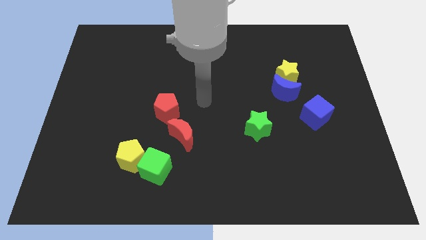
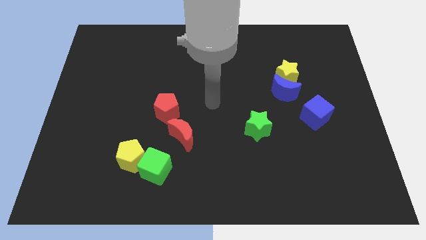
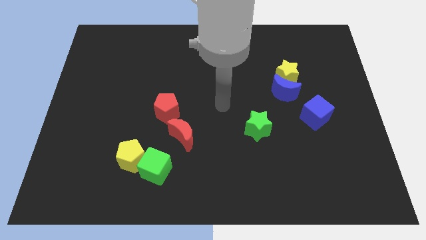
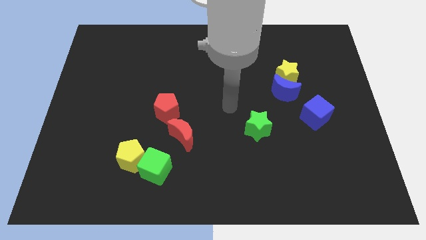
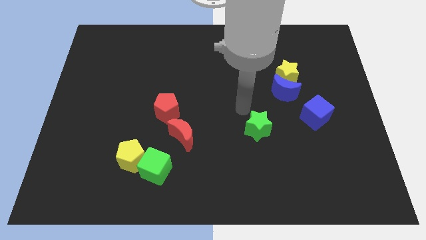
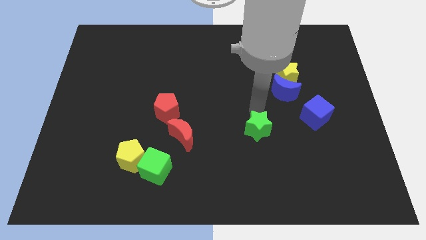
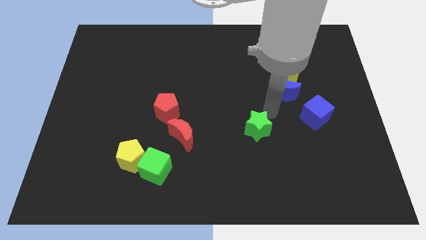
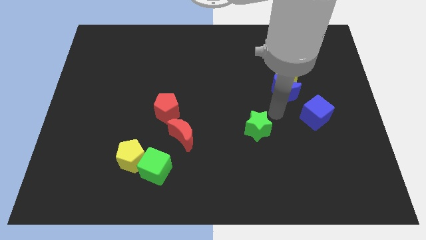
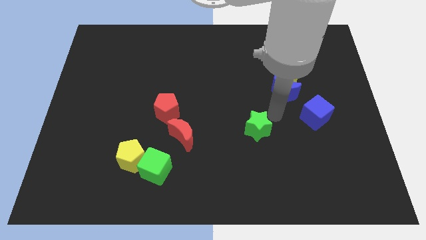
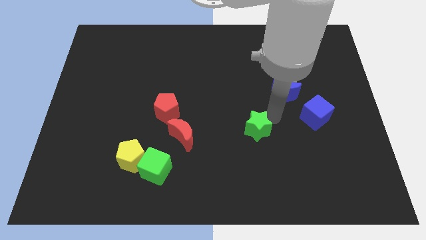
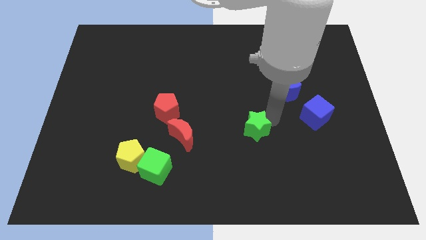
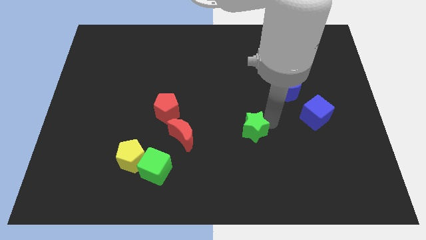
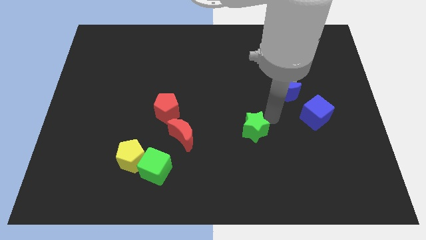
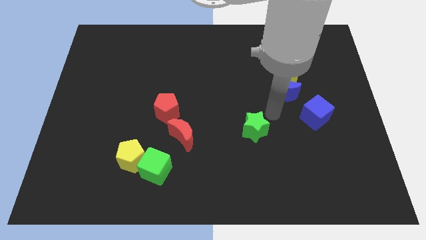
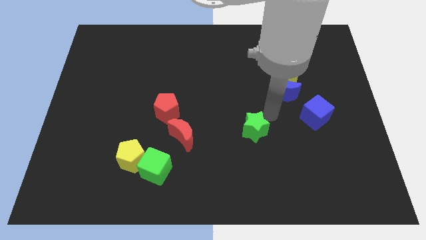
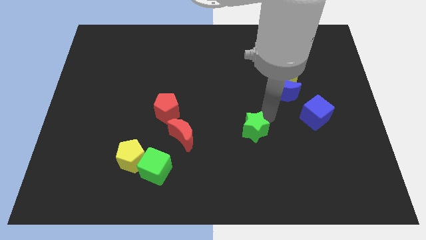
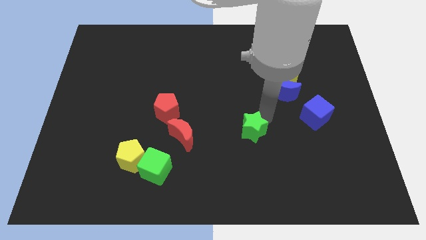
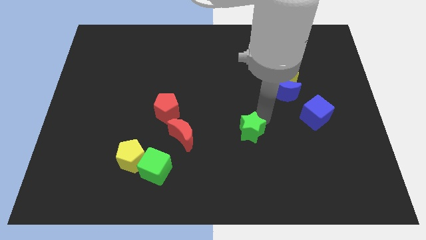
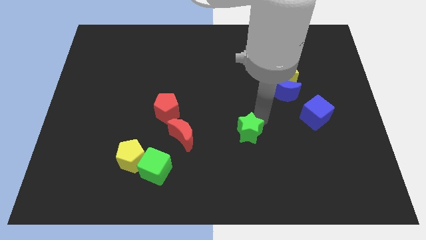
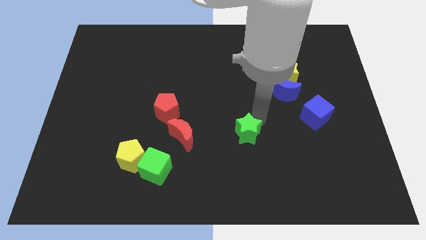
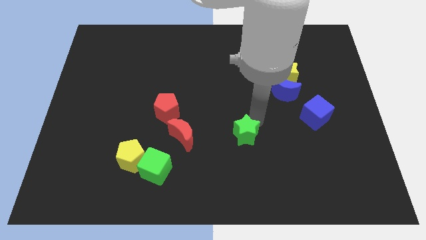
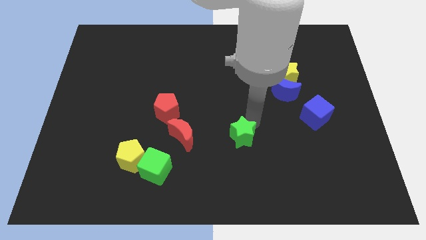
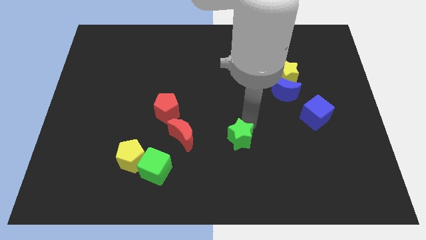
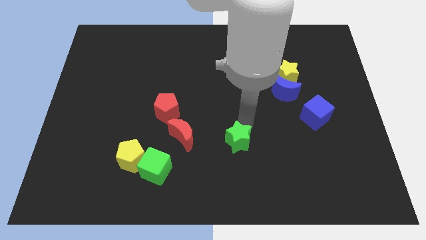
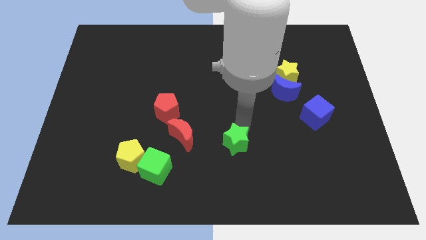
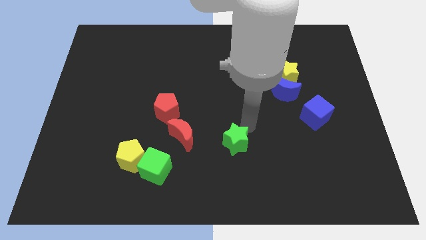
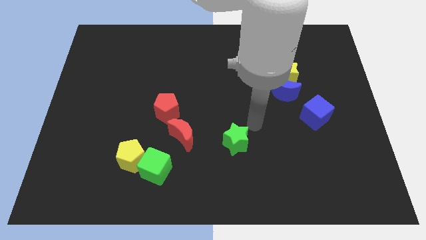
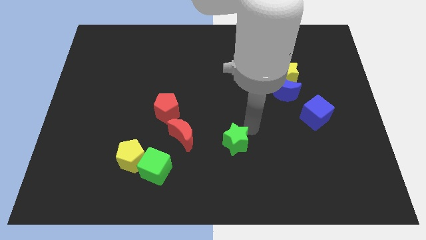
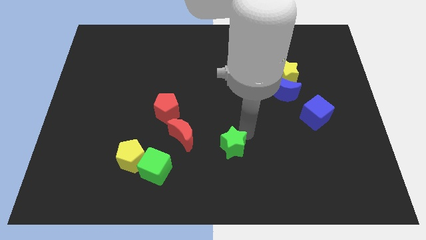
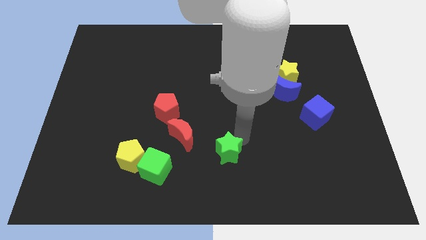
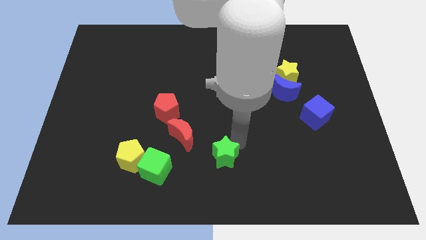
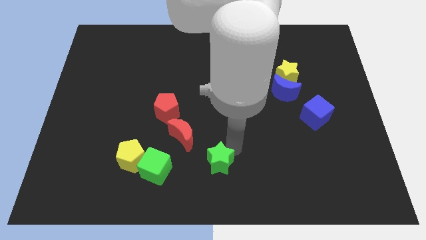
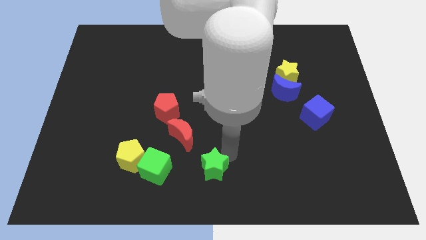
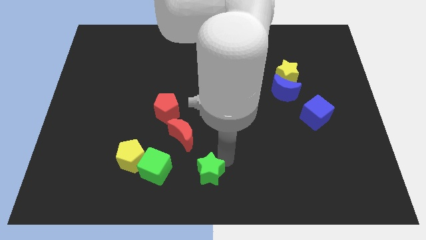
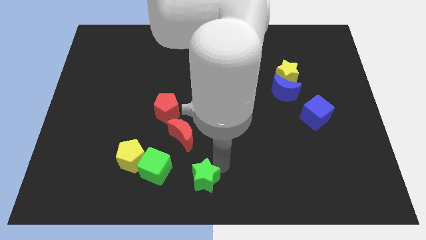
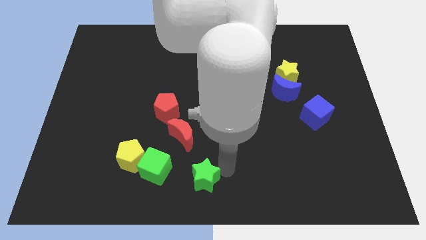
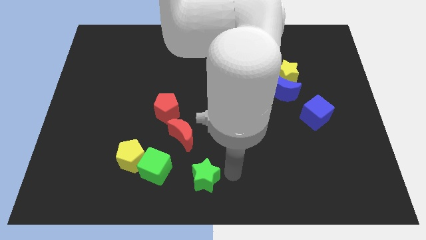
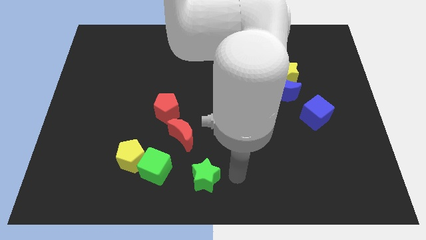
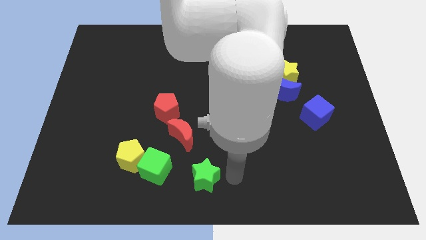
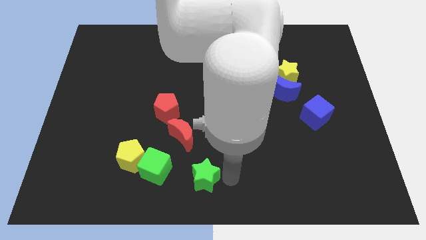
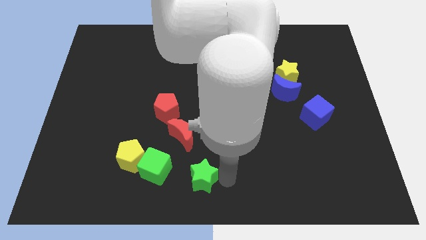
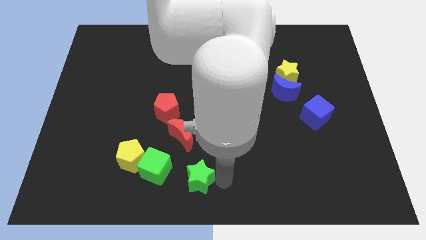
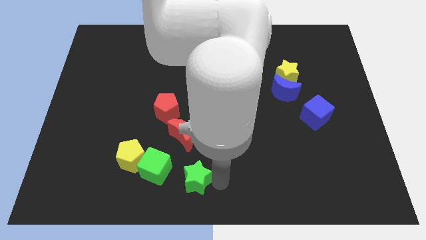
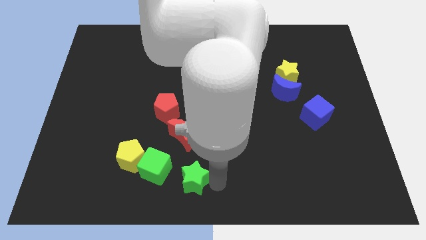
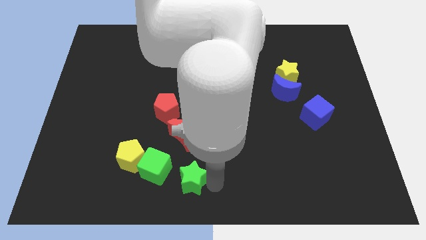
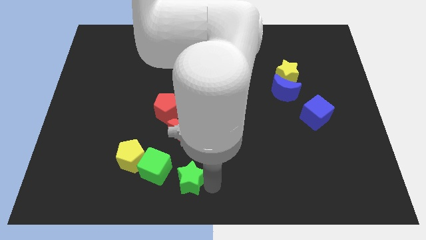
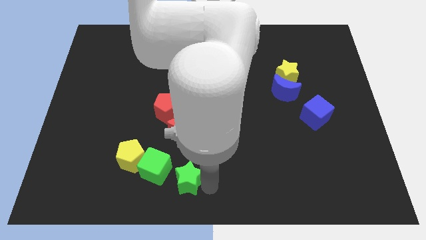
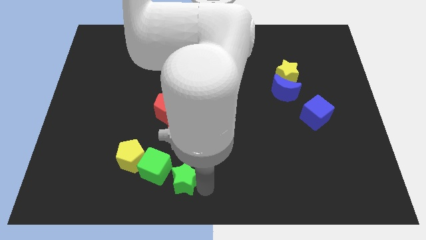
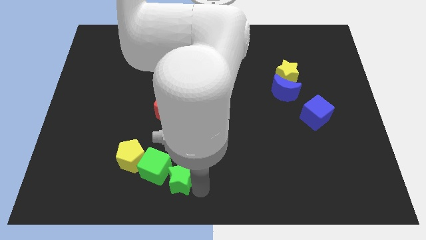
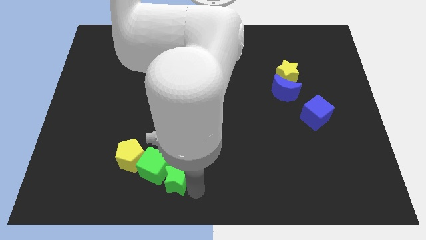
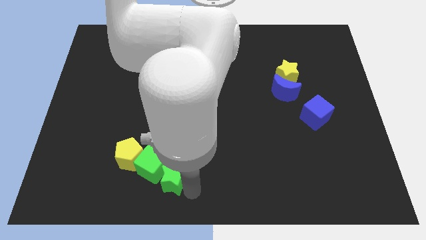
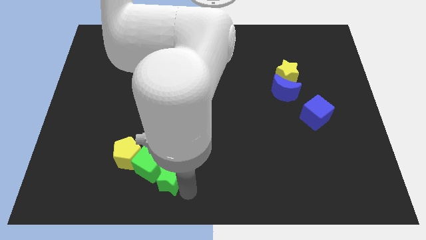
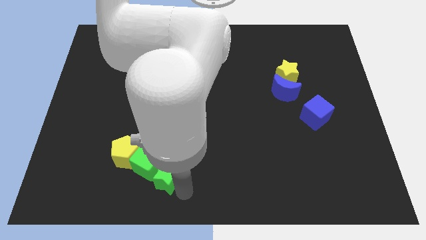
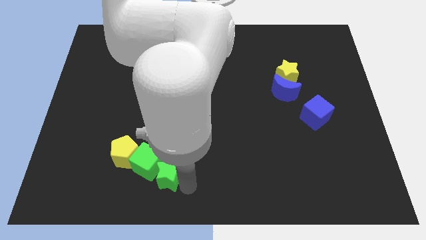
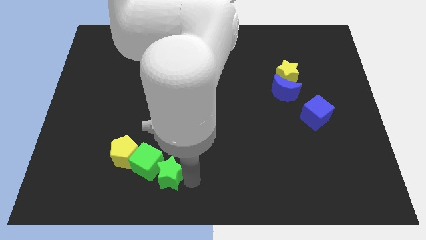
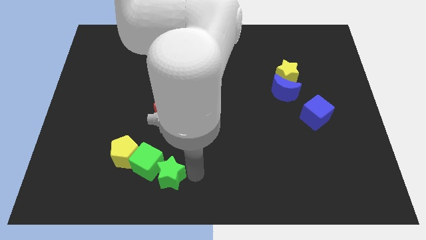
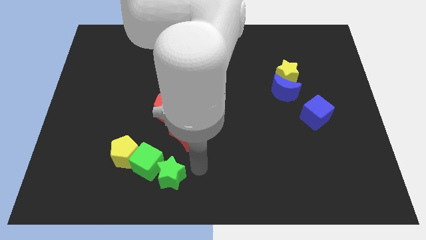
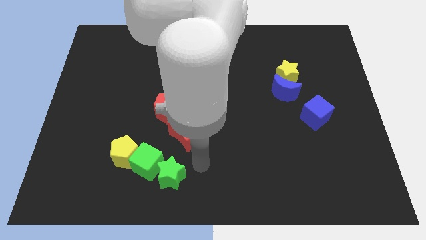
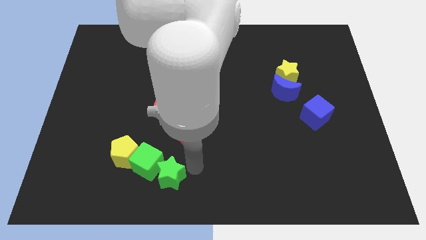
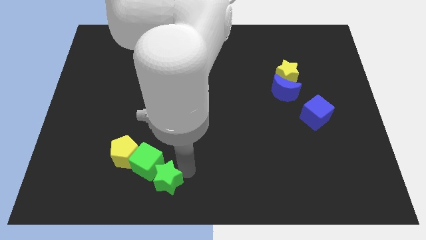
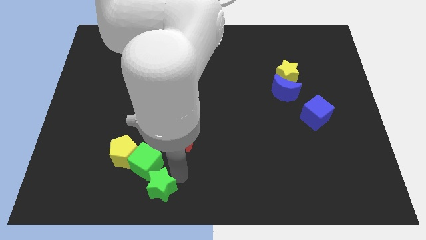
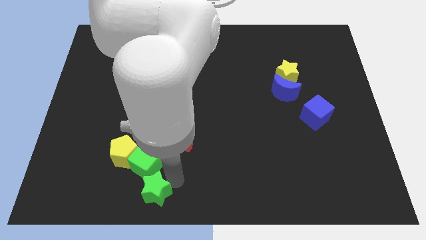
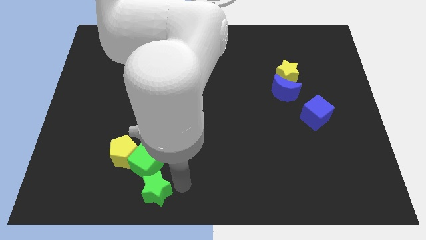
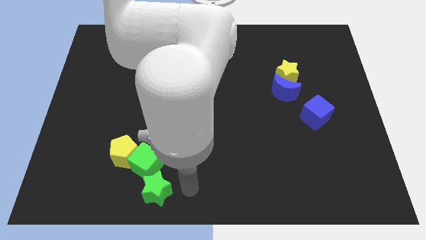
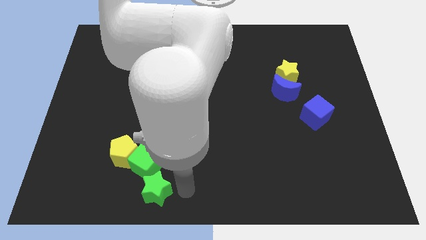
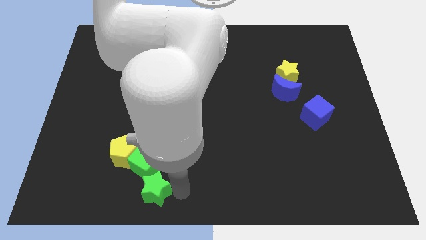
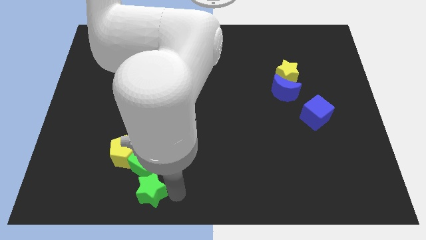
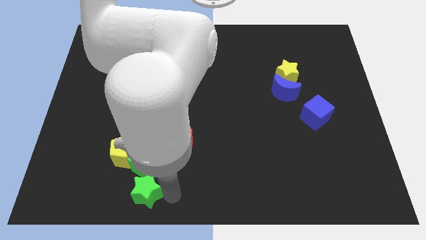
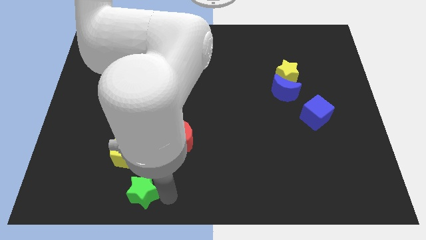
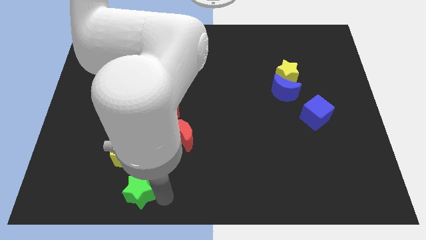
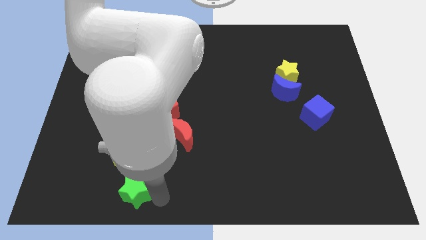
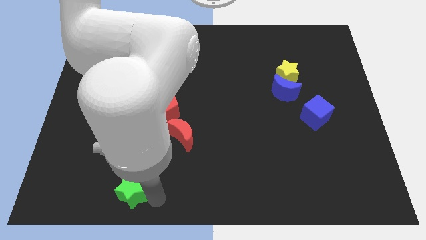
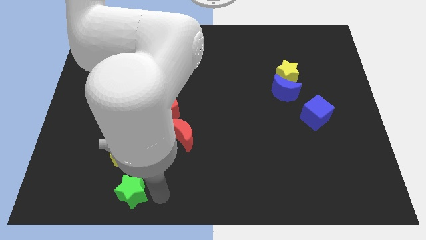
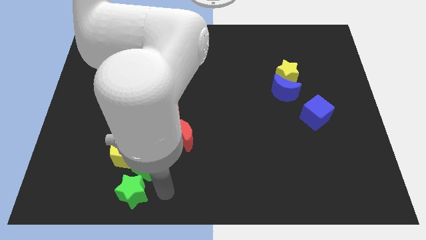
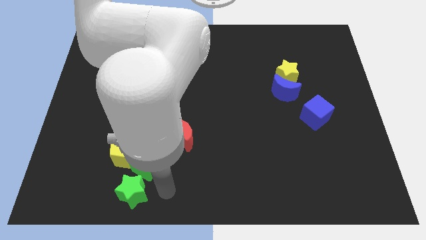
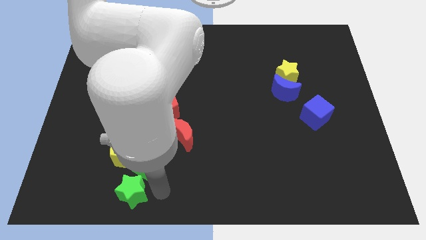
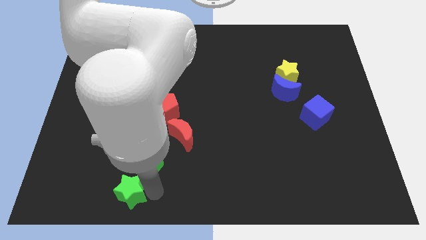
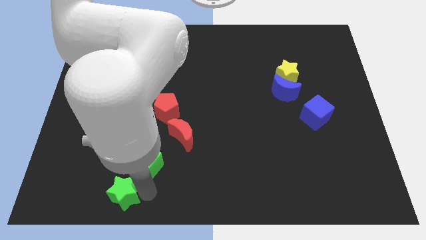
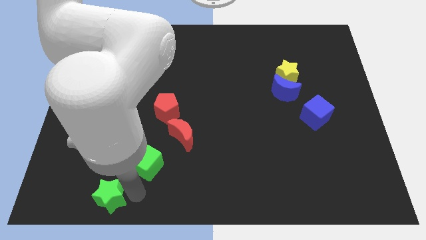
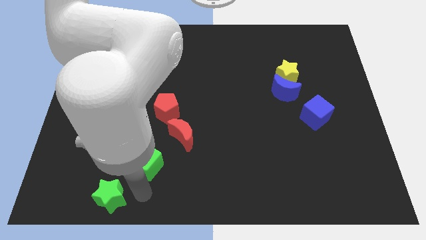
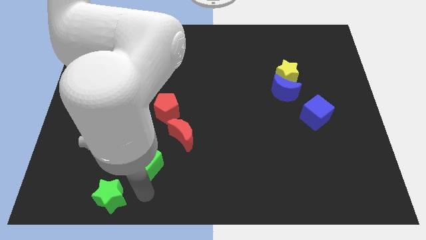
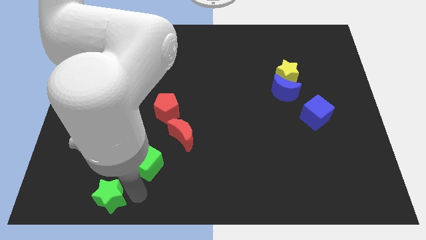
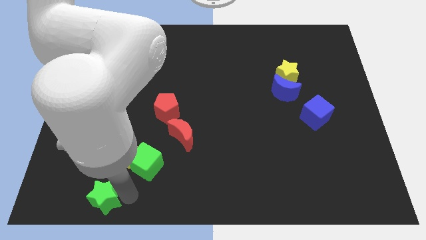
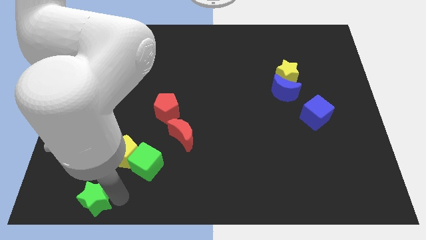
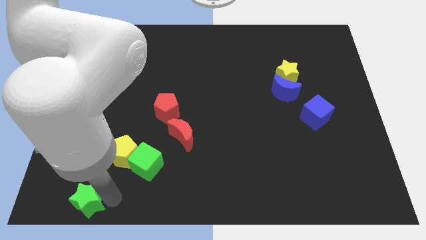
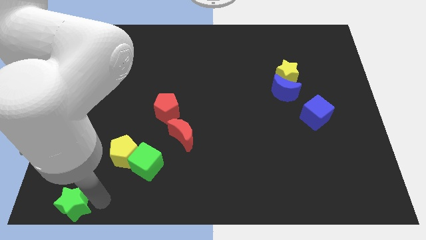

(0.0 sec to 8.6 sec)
put the green star to the bottom left corner
